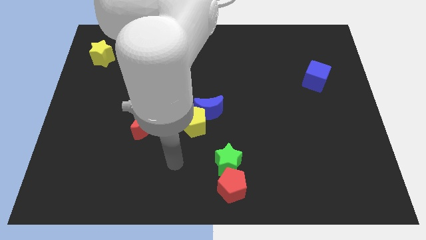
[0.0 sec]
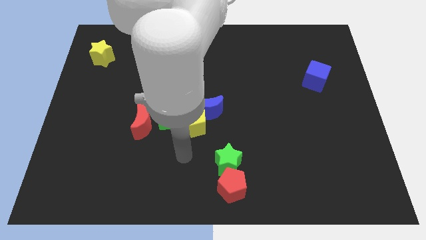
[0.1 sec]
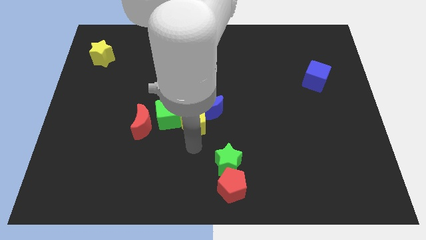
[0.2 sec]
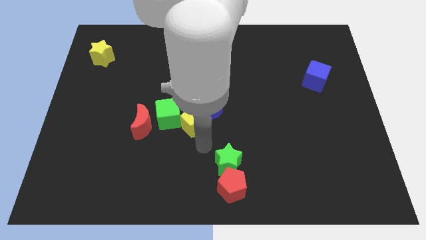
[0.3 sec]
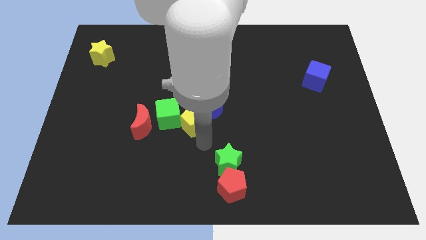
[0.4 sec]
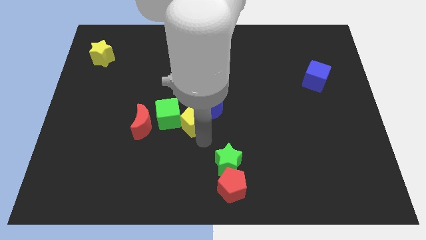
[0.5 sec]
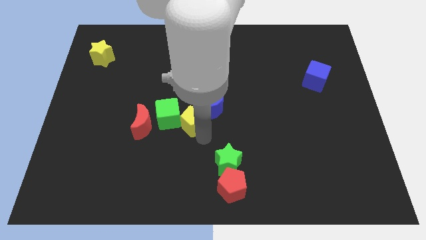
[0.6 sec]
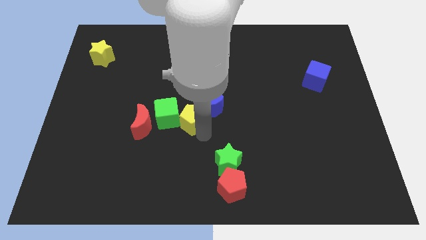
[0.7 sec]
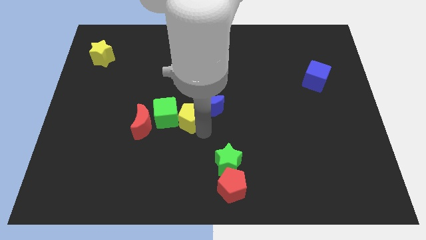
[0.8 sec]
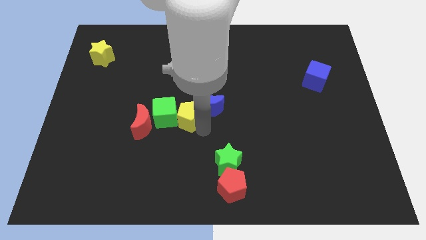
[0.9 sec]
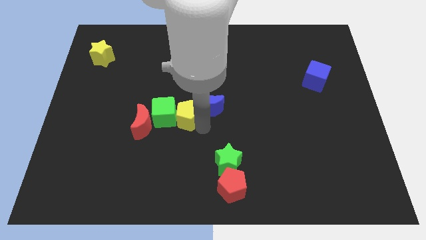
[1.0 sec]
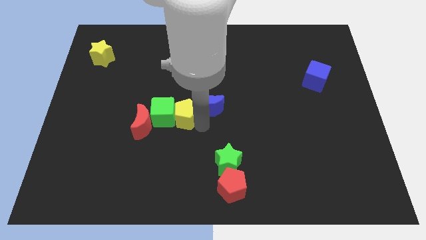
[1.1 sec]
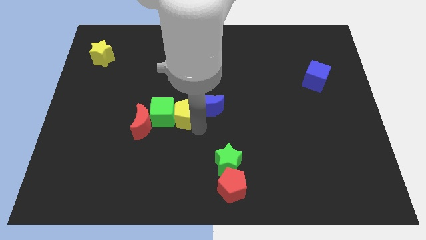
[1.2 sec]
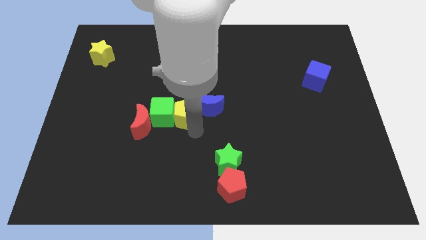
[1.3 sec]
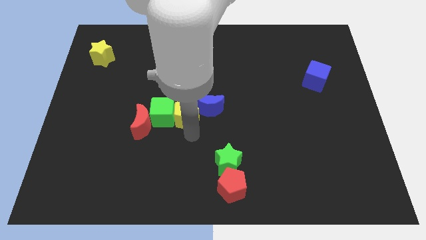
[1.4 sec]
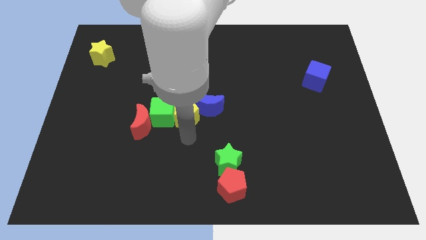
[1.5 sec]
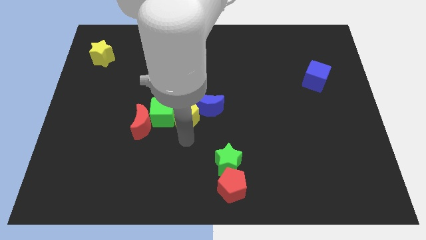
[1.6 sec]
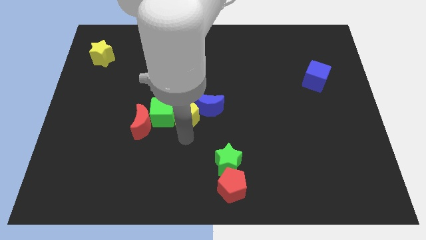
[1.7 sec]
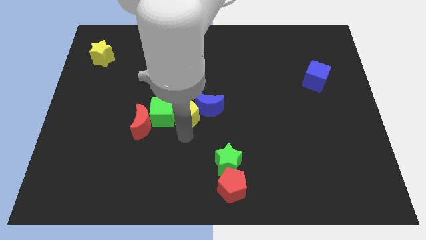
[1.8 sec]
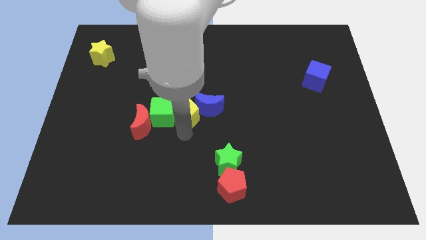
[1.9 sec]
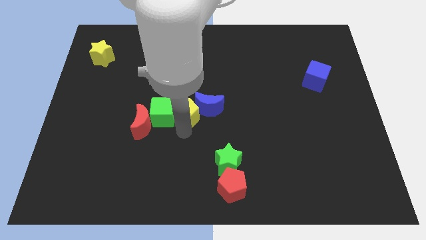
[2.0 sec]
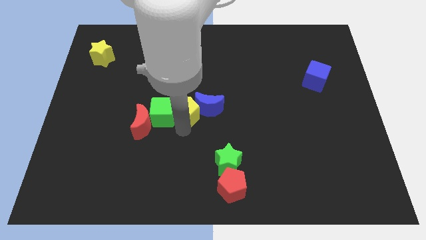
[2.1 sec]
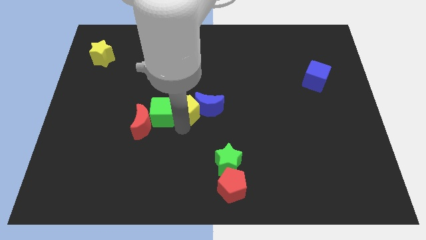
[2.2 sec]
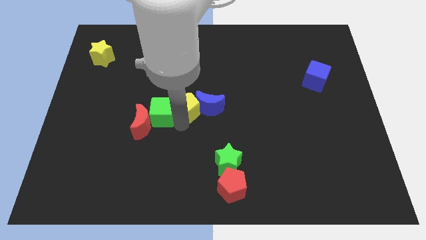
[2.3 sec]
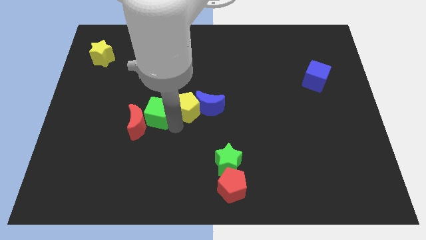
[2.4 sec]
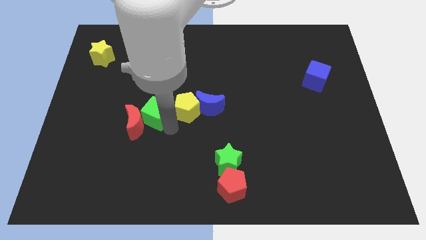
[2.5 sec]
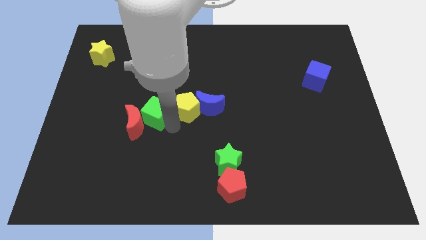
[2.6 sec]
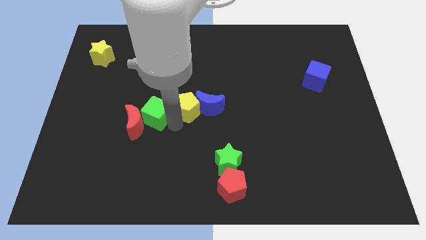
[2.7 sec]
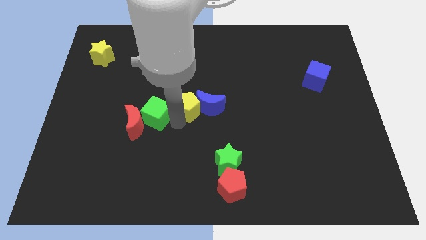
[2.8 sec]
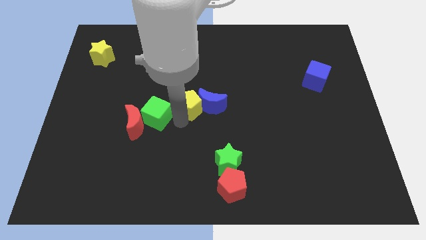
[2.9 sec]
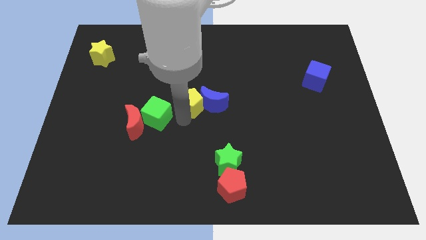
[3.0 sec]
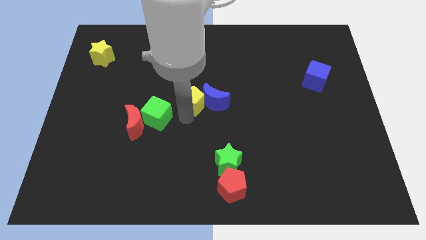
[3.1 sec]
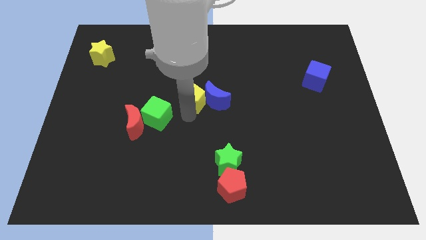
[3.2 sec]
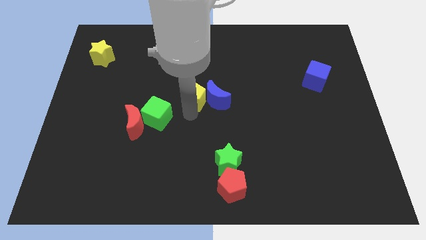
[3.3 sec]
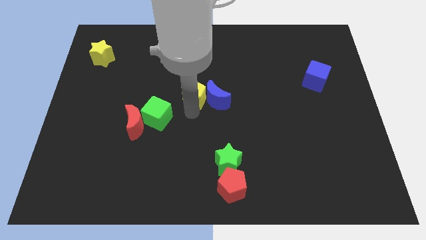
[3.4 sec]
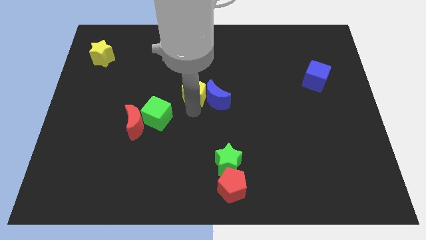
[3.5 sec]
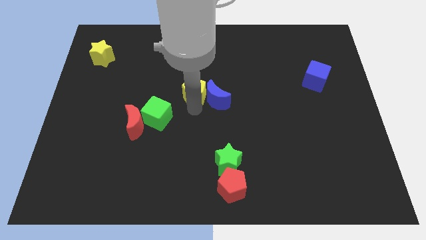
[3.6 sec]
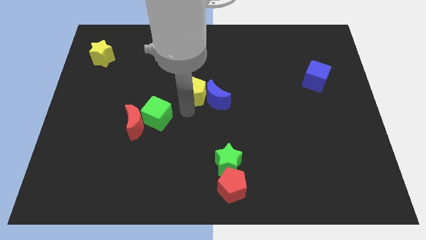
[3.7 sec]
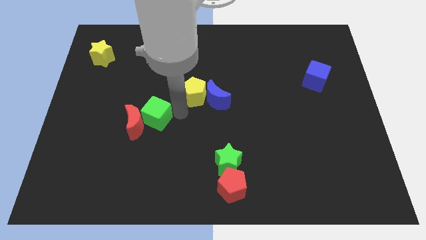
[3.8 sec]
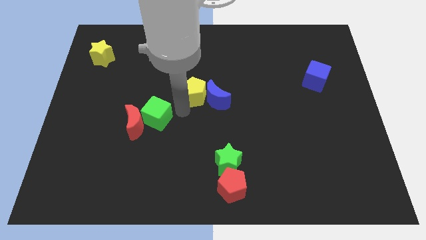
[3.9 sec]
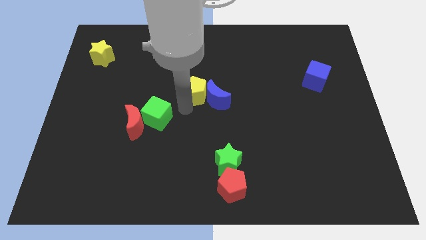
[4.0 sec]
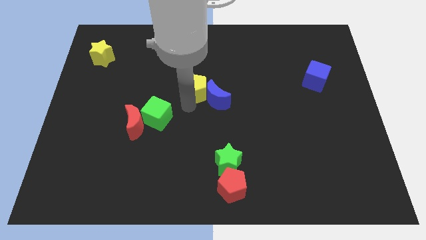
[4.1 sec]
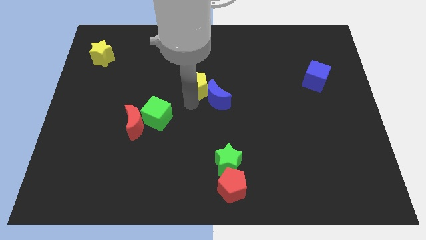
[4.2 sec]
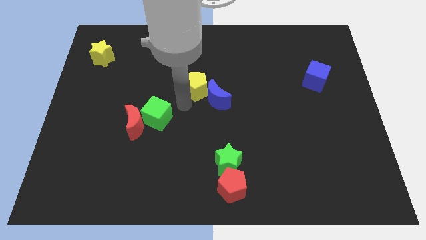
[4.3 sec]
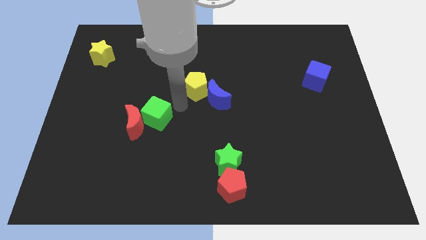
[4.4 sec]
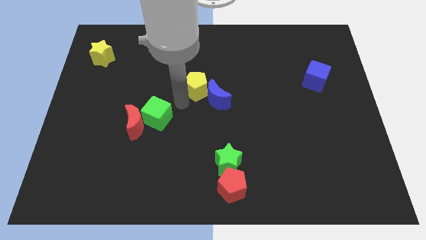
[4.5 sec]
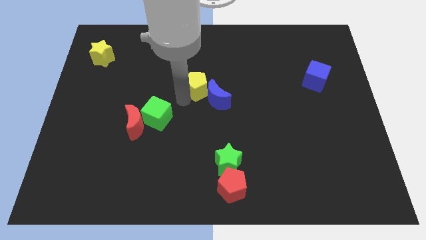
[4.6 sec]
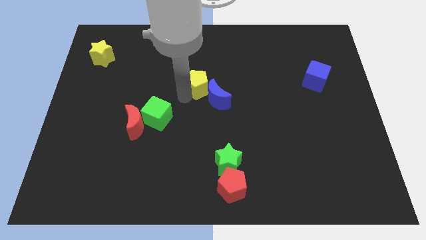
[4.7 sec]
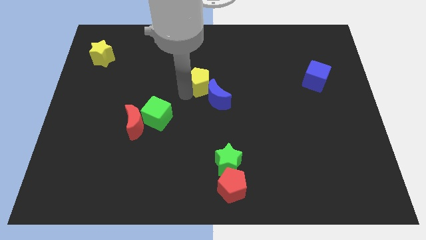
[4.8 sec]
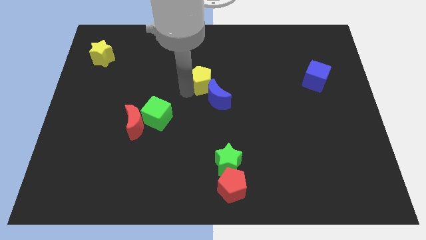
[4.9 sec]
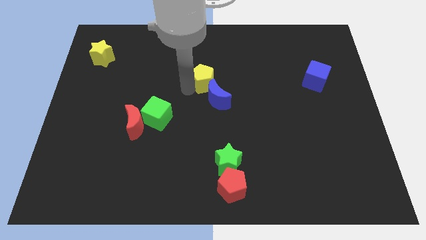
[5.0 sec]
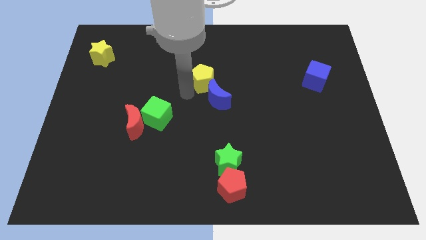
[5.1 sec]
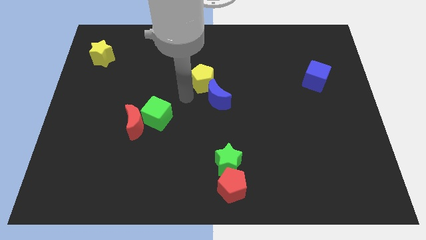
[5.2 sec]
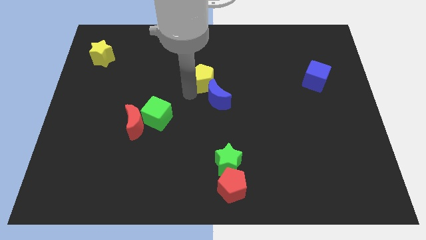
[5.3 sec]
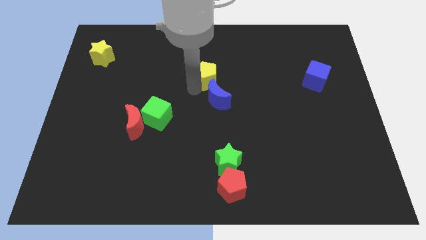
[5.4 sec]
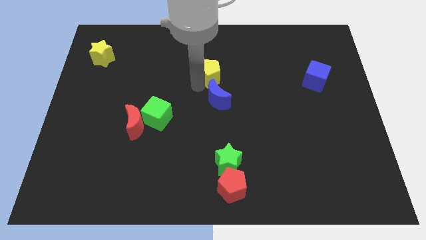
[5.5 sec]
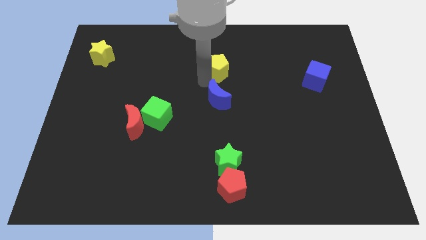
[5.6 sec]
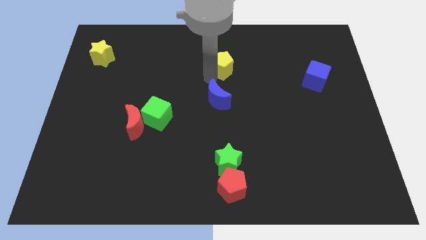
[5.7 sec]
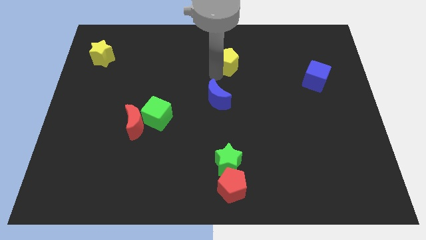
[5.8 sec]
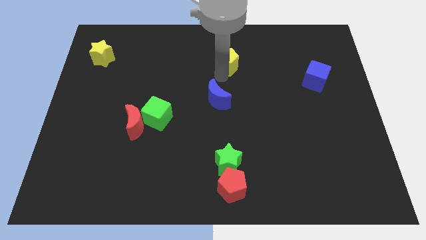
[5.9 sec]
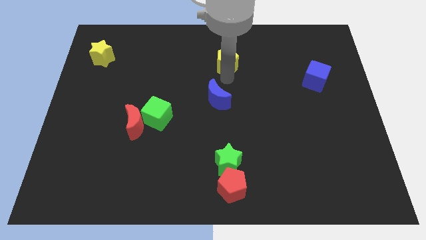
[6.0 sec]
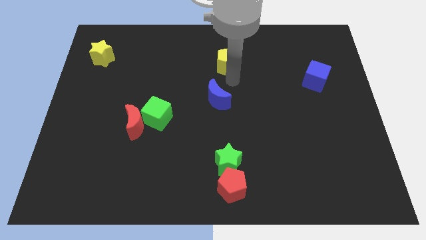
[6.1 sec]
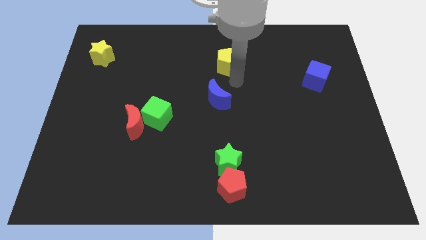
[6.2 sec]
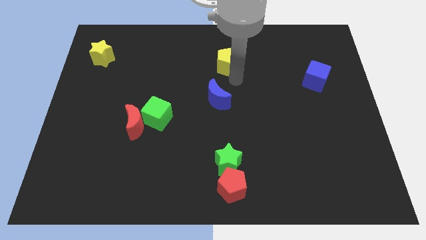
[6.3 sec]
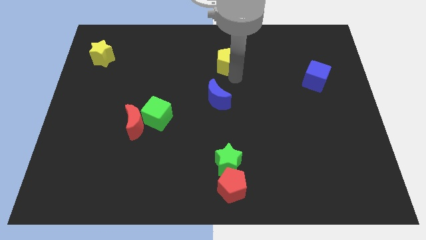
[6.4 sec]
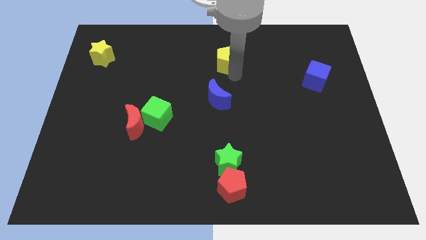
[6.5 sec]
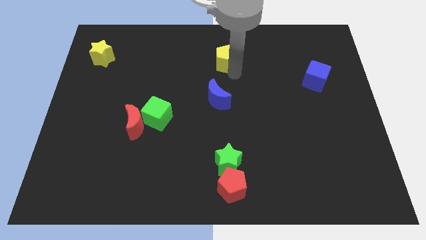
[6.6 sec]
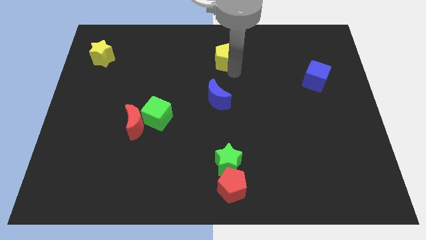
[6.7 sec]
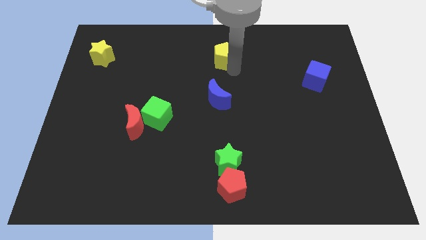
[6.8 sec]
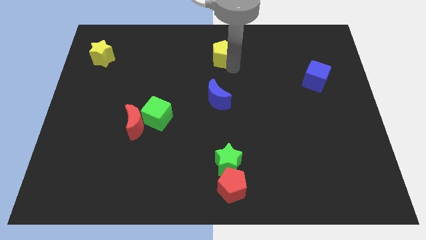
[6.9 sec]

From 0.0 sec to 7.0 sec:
slide the yellow pentagon to the top side

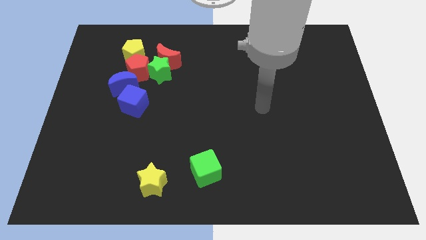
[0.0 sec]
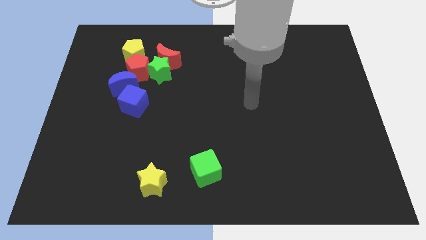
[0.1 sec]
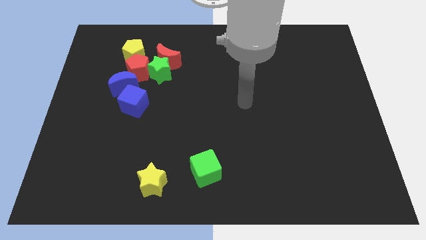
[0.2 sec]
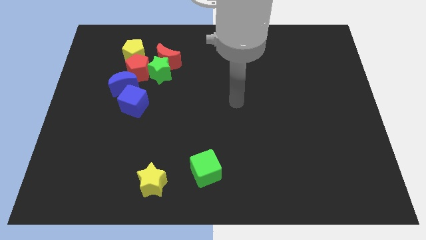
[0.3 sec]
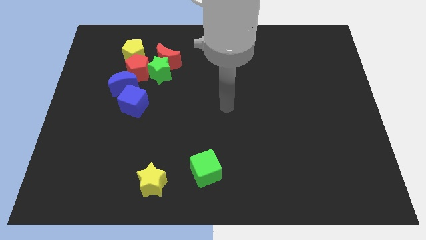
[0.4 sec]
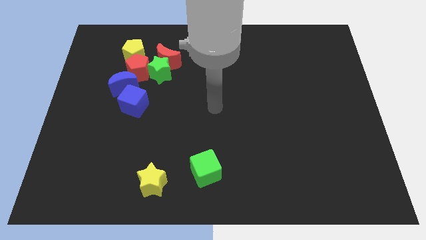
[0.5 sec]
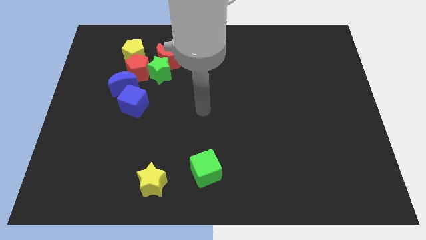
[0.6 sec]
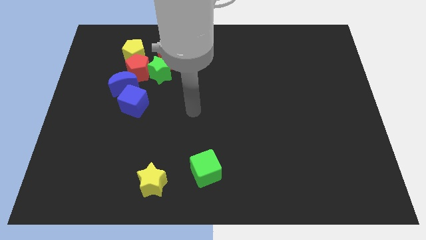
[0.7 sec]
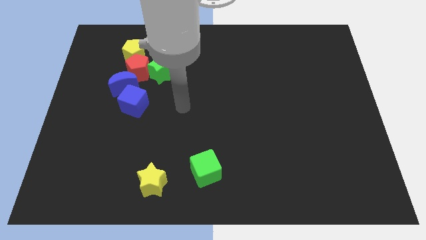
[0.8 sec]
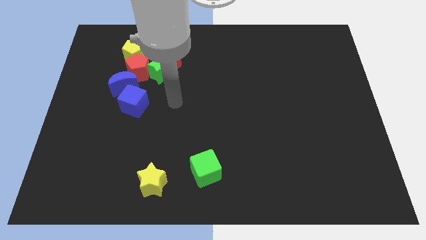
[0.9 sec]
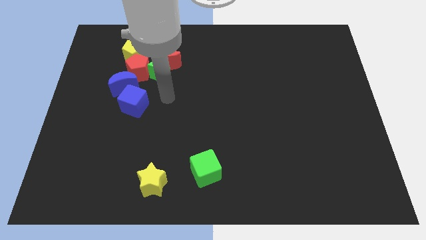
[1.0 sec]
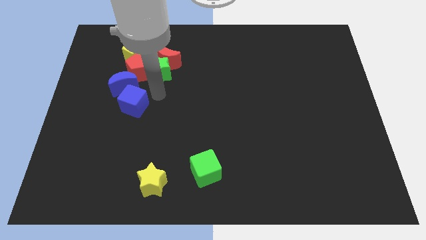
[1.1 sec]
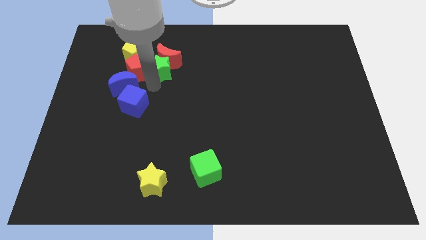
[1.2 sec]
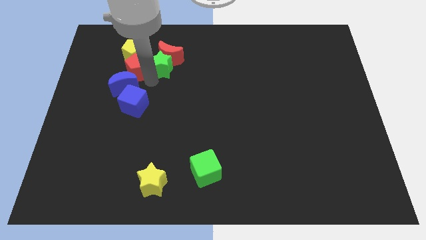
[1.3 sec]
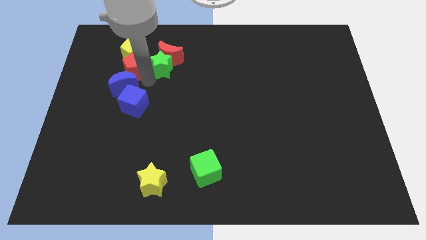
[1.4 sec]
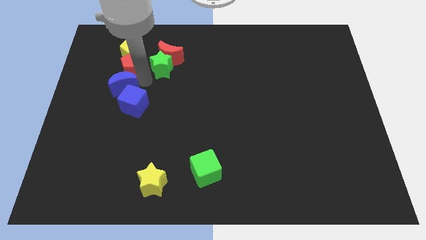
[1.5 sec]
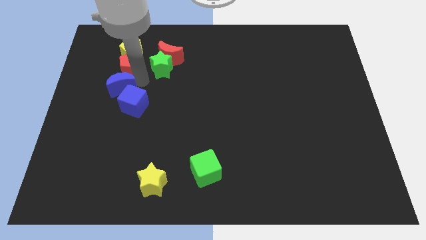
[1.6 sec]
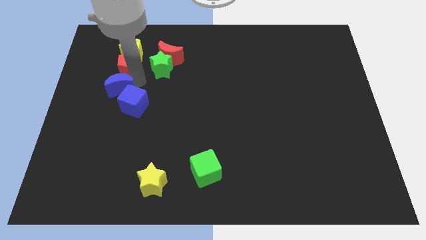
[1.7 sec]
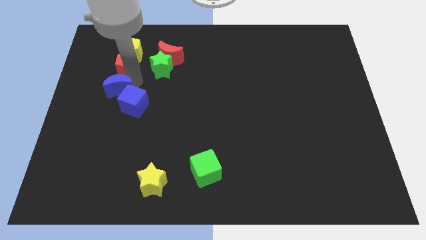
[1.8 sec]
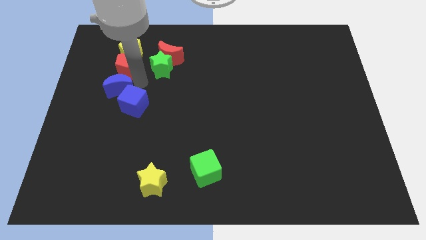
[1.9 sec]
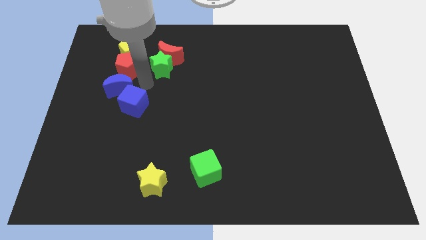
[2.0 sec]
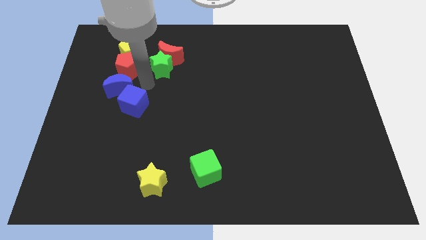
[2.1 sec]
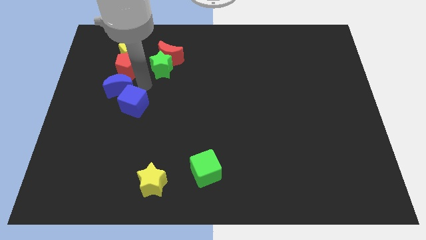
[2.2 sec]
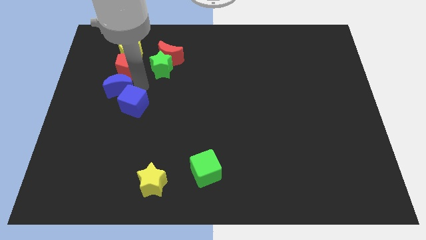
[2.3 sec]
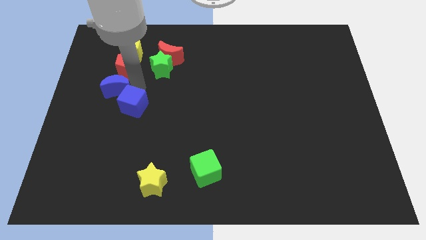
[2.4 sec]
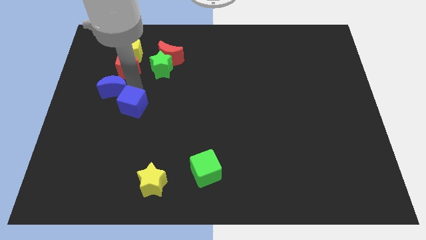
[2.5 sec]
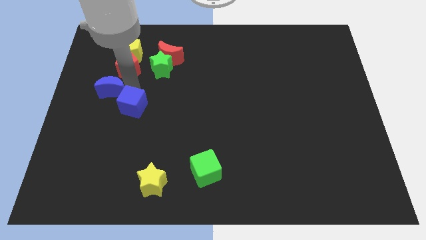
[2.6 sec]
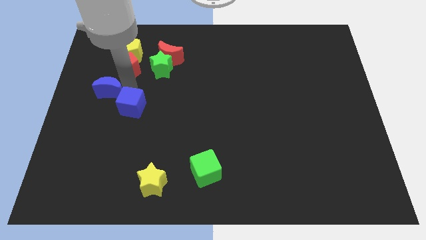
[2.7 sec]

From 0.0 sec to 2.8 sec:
move the blue moon to the left side of the board
